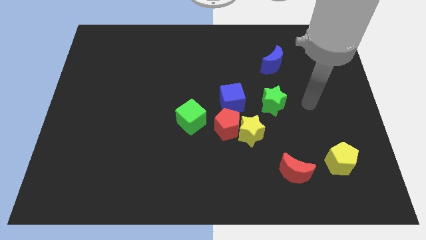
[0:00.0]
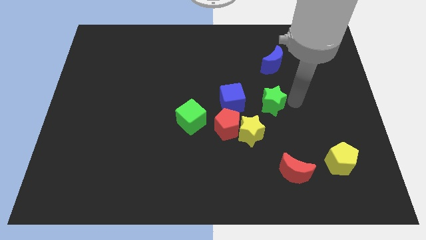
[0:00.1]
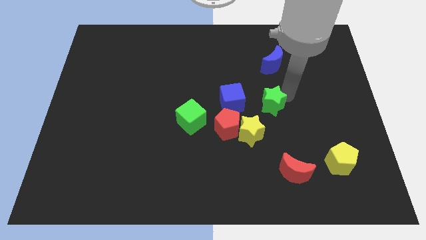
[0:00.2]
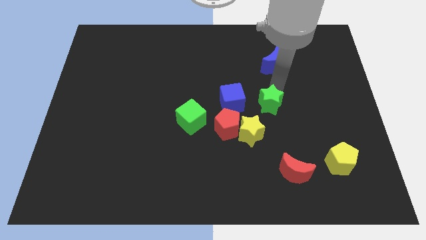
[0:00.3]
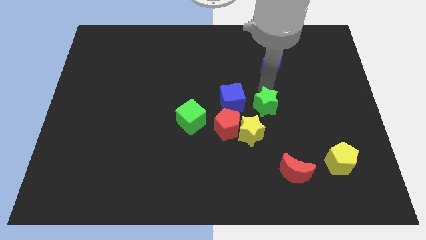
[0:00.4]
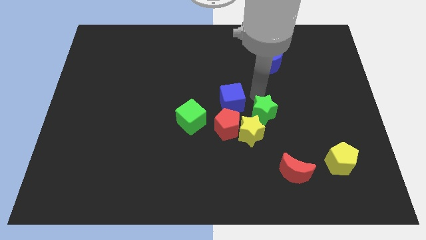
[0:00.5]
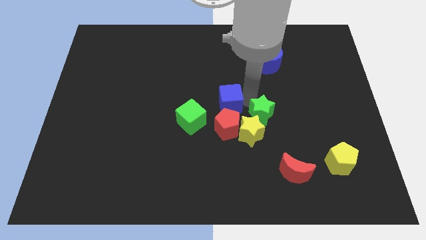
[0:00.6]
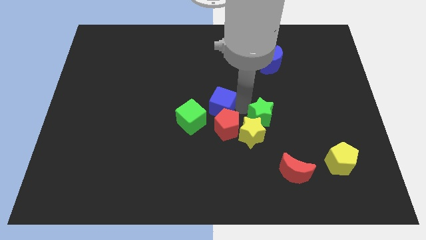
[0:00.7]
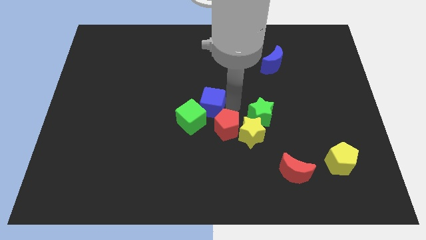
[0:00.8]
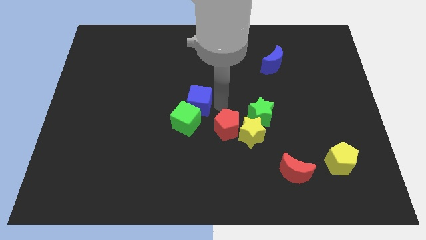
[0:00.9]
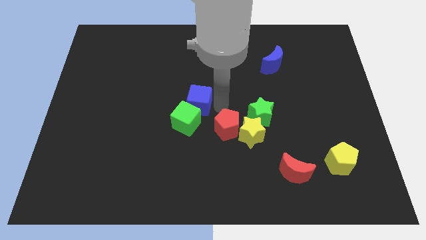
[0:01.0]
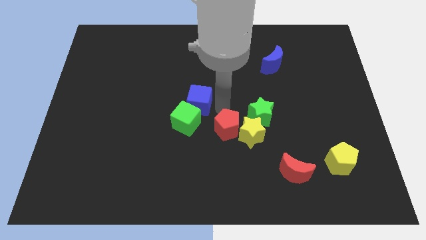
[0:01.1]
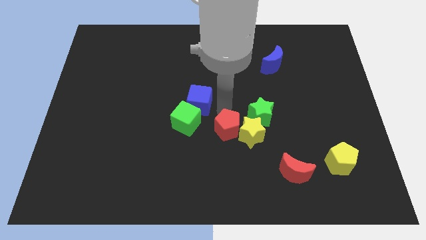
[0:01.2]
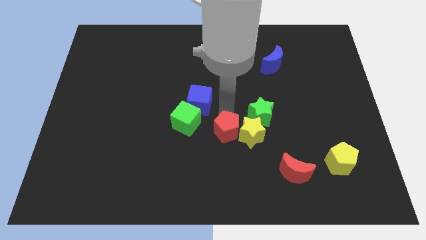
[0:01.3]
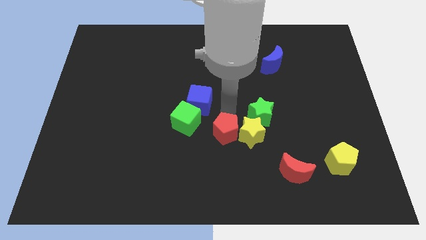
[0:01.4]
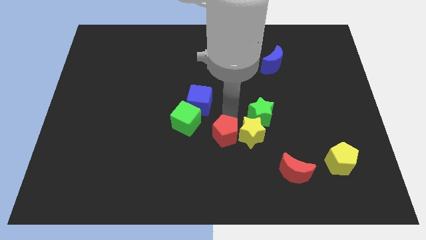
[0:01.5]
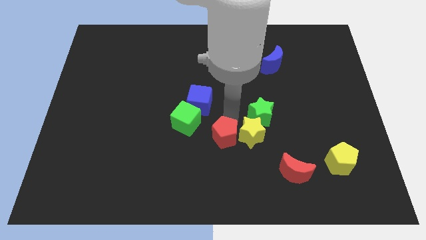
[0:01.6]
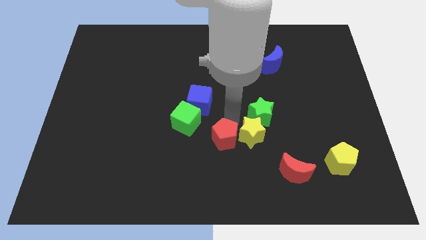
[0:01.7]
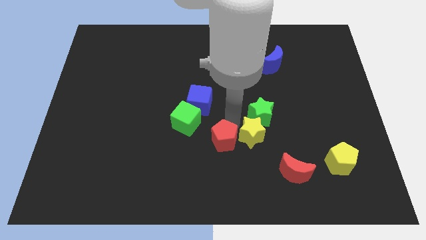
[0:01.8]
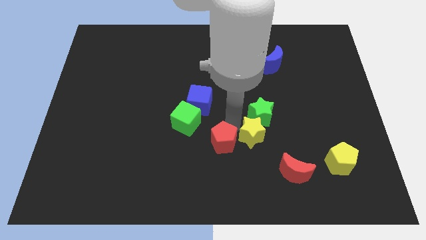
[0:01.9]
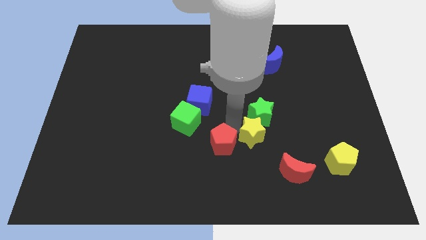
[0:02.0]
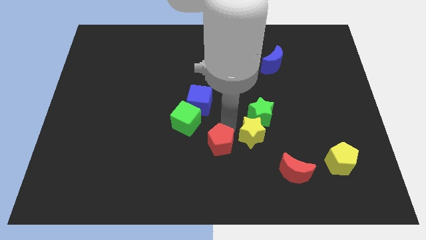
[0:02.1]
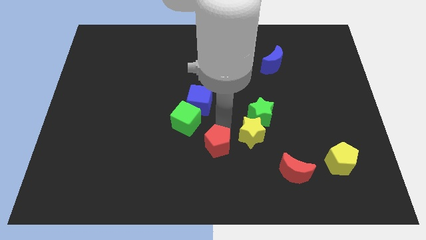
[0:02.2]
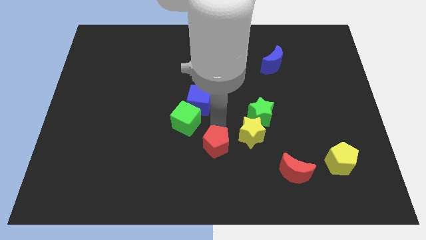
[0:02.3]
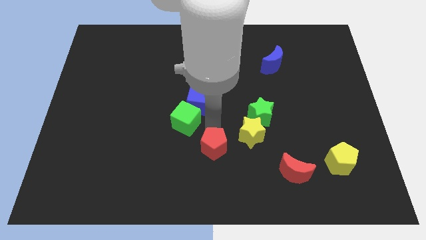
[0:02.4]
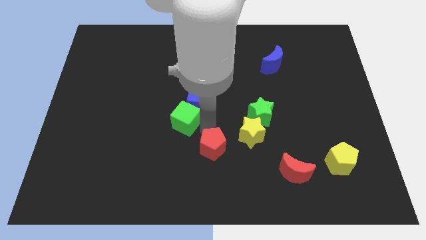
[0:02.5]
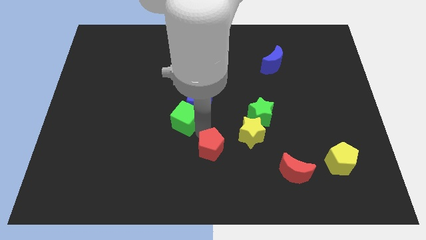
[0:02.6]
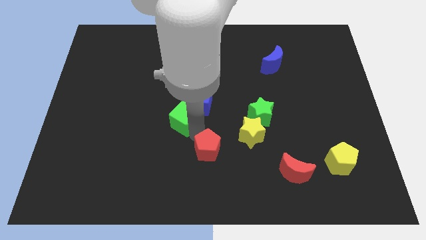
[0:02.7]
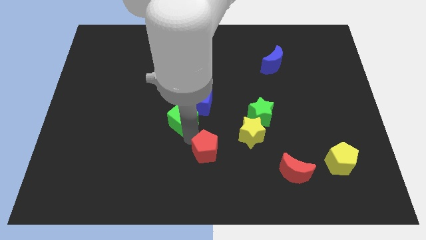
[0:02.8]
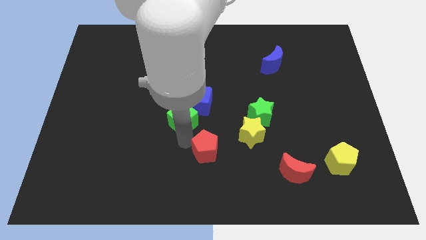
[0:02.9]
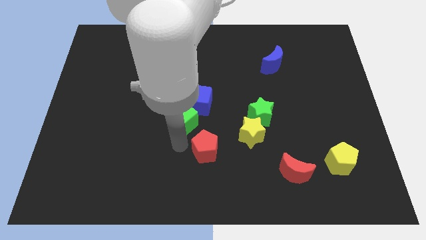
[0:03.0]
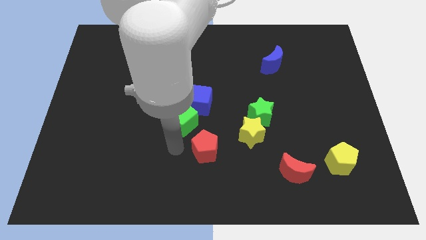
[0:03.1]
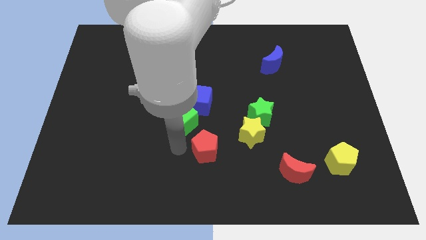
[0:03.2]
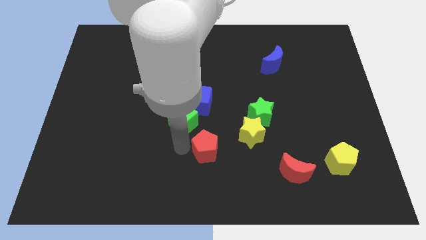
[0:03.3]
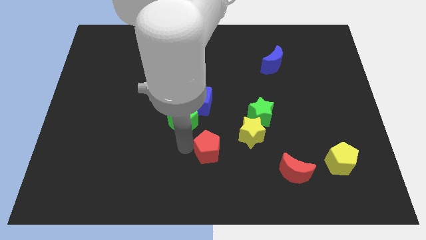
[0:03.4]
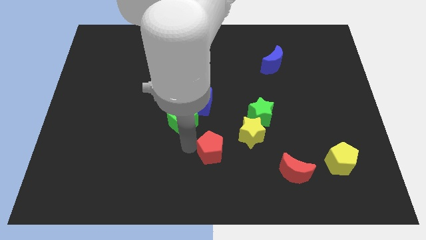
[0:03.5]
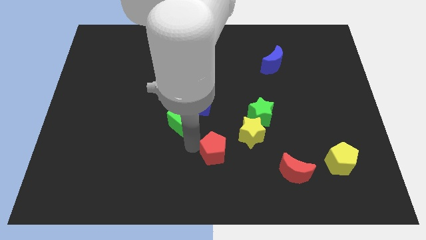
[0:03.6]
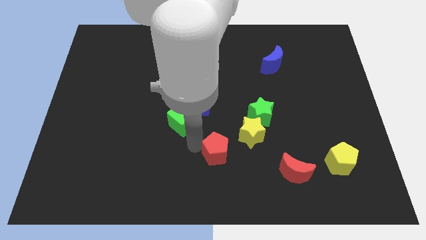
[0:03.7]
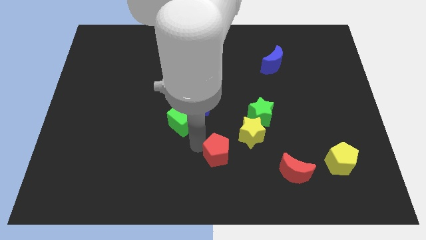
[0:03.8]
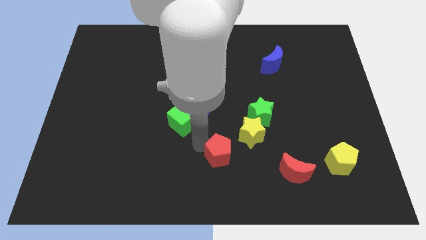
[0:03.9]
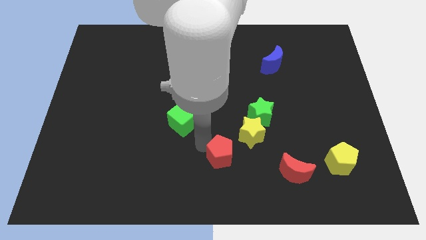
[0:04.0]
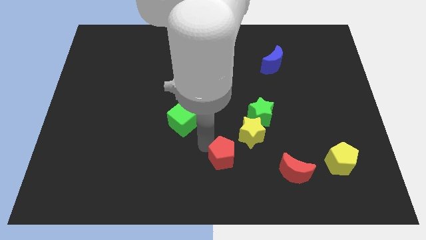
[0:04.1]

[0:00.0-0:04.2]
separate the red pentagon from the group

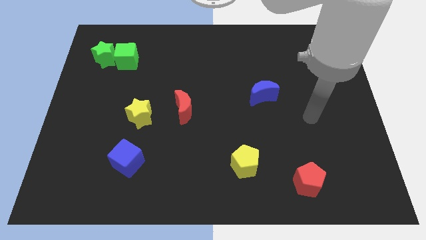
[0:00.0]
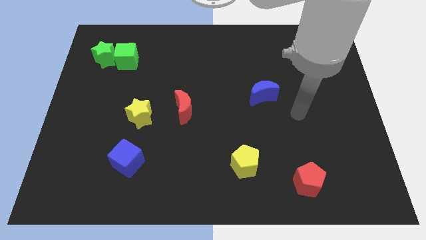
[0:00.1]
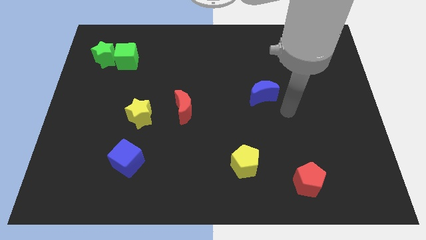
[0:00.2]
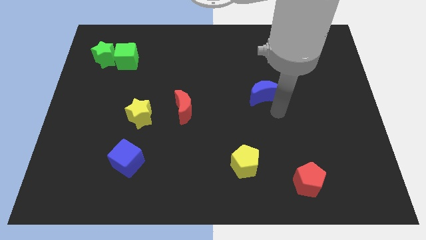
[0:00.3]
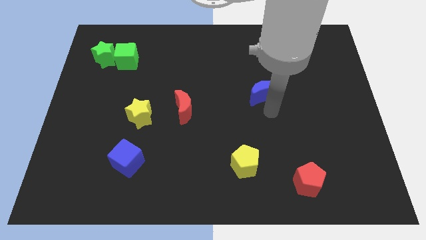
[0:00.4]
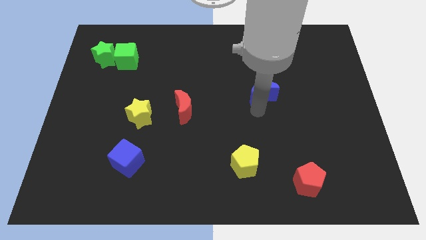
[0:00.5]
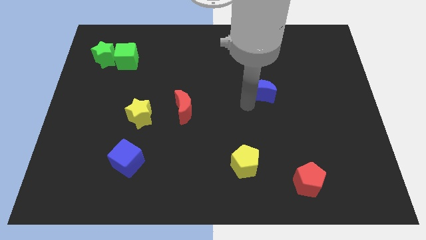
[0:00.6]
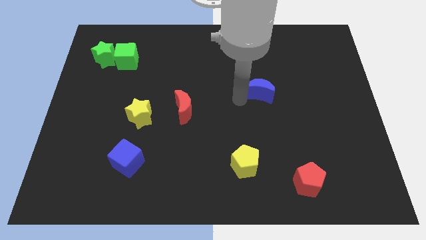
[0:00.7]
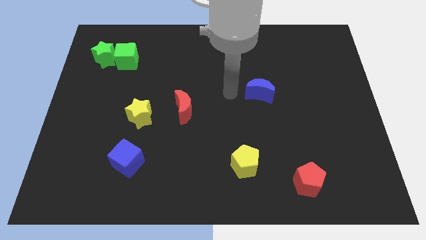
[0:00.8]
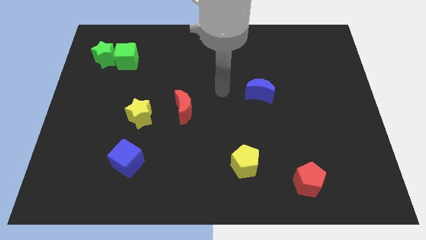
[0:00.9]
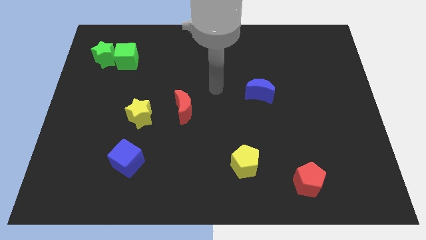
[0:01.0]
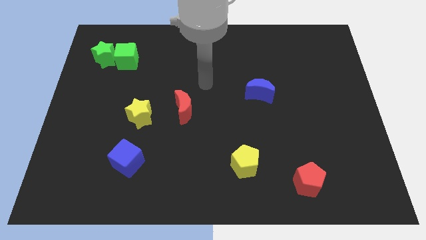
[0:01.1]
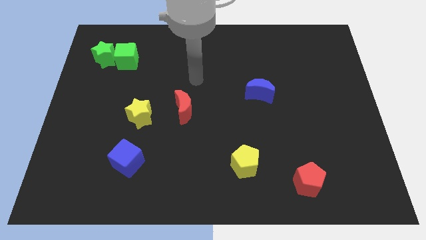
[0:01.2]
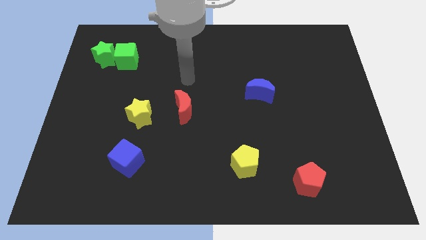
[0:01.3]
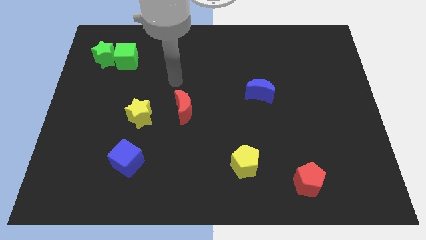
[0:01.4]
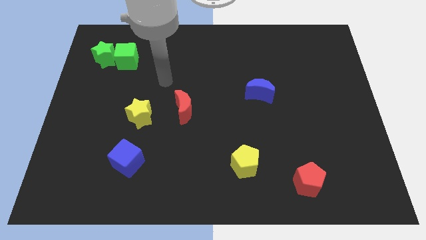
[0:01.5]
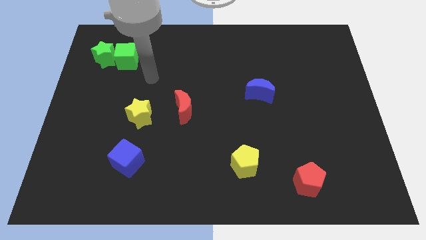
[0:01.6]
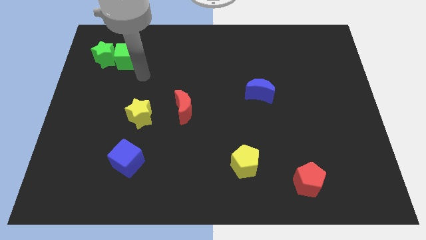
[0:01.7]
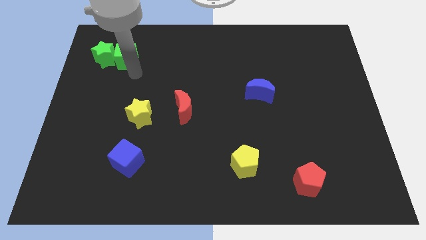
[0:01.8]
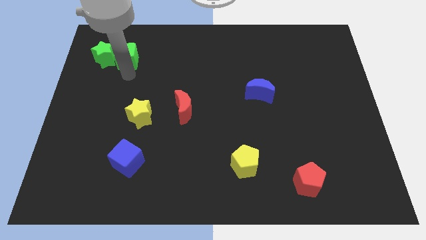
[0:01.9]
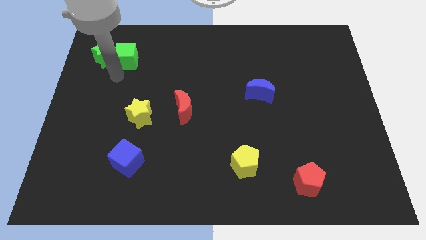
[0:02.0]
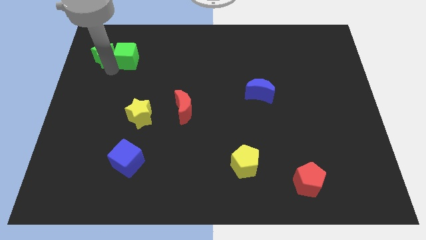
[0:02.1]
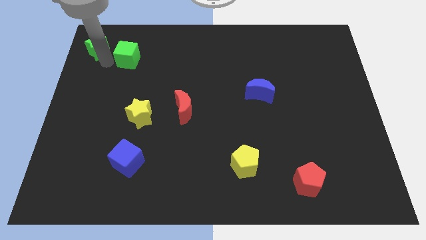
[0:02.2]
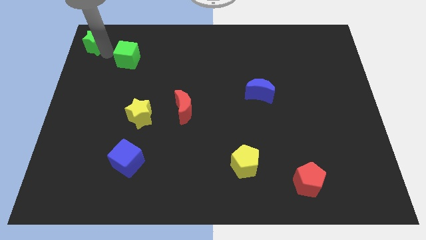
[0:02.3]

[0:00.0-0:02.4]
separate the green cube from the green star

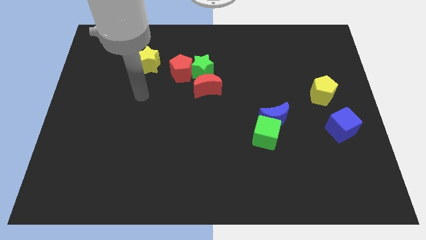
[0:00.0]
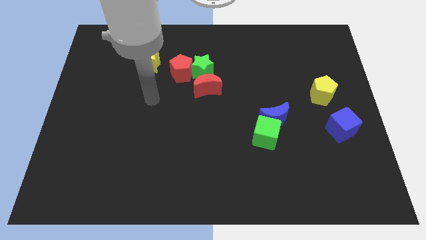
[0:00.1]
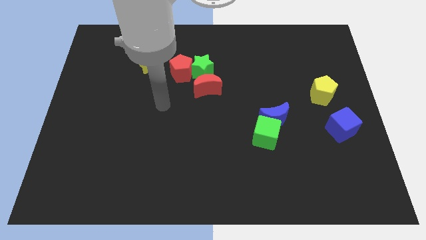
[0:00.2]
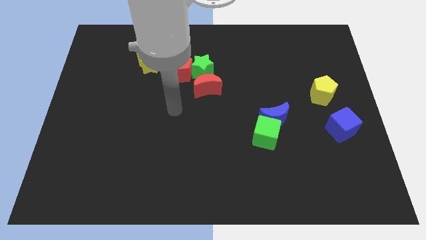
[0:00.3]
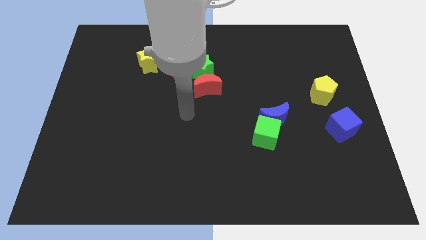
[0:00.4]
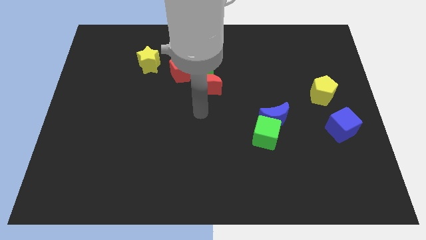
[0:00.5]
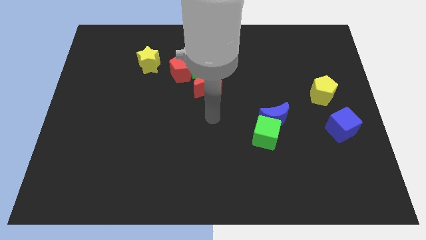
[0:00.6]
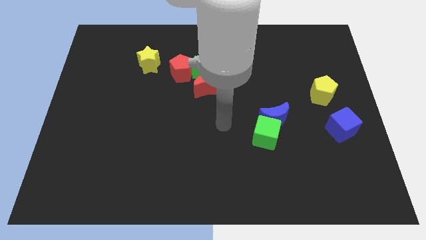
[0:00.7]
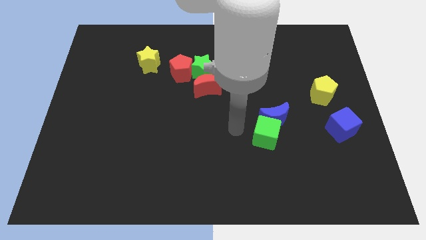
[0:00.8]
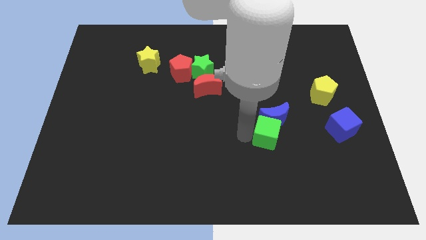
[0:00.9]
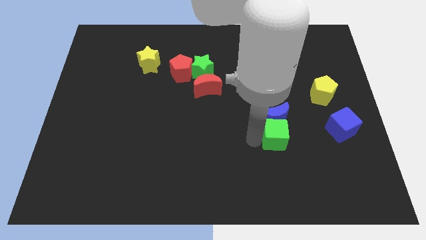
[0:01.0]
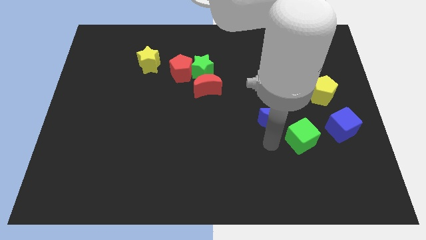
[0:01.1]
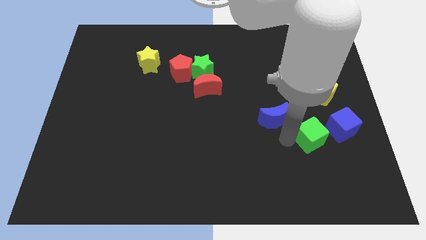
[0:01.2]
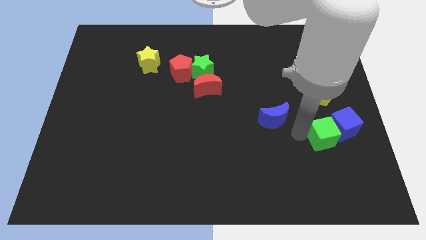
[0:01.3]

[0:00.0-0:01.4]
pull the blue moon apart from the green cube

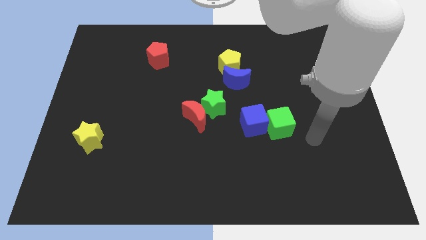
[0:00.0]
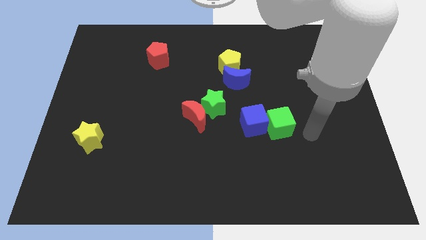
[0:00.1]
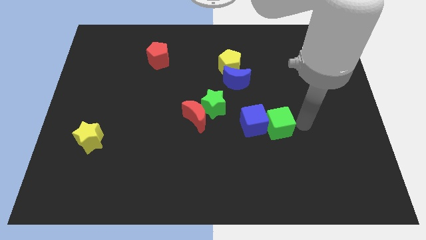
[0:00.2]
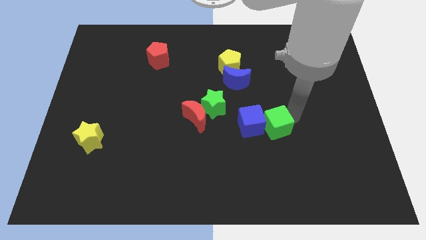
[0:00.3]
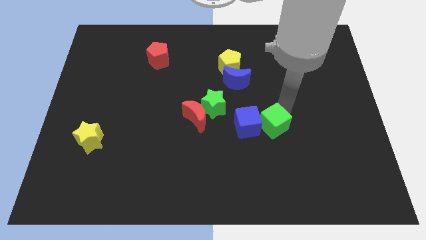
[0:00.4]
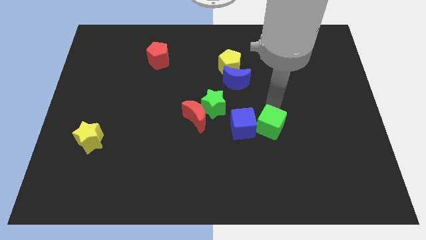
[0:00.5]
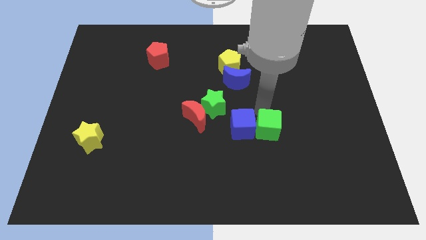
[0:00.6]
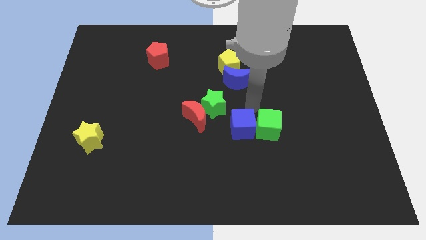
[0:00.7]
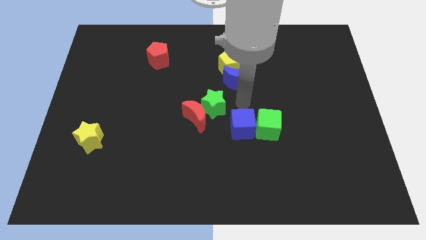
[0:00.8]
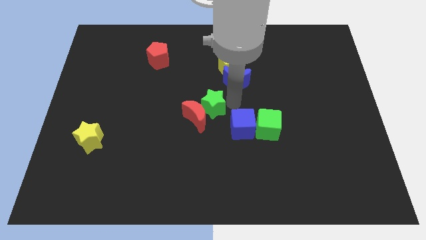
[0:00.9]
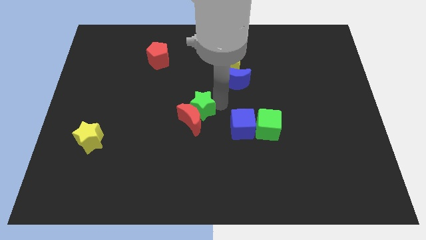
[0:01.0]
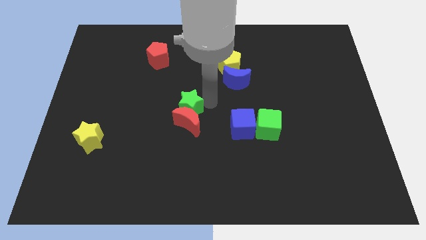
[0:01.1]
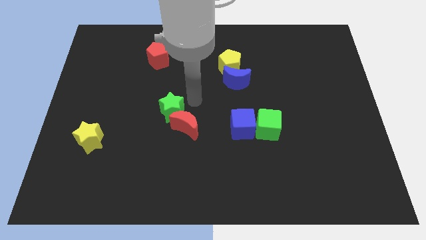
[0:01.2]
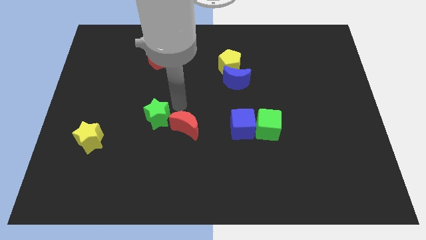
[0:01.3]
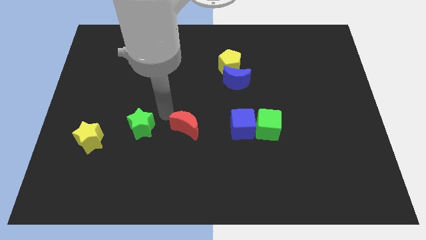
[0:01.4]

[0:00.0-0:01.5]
move the red moon away from the green star

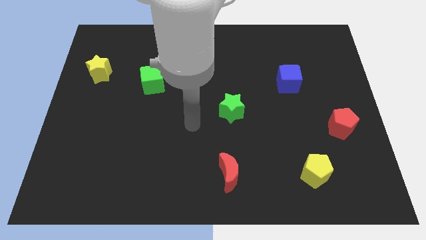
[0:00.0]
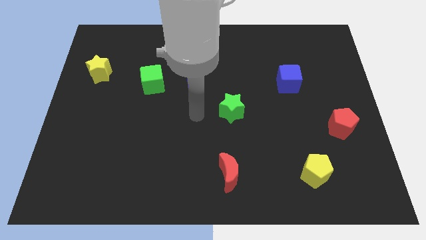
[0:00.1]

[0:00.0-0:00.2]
separate the blue moon from the green cube
